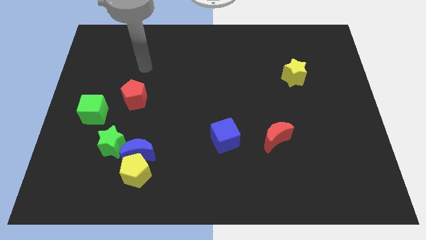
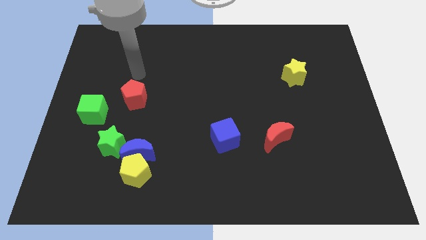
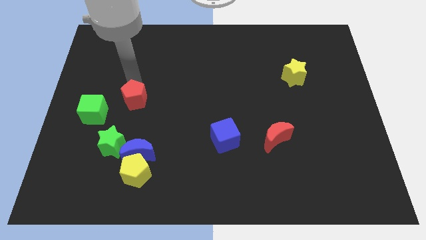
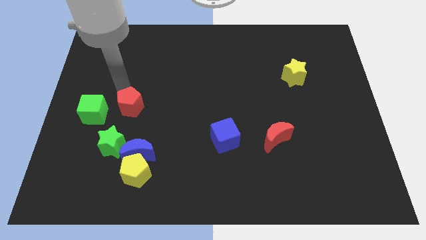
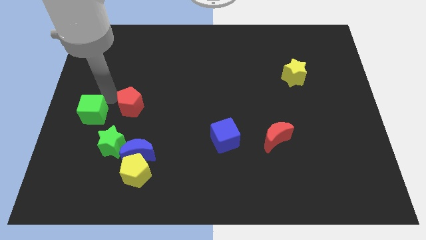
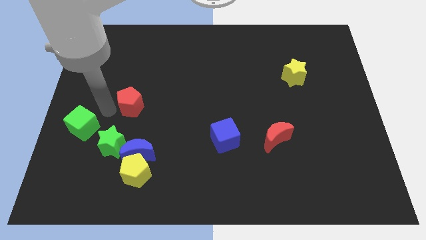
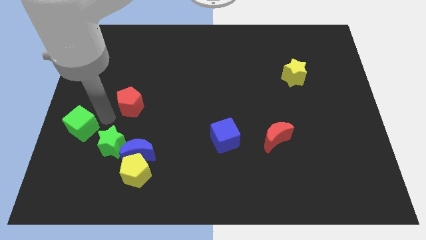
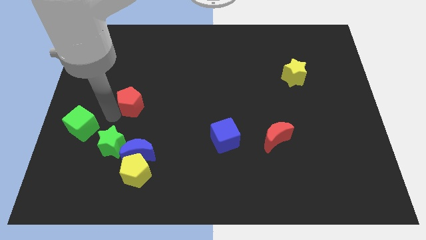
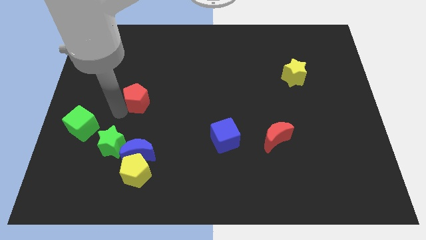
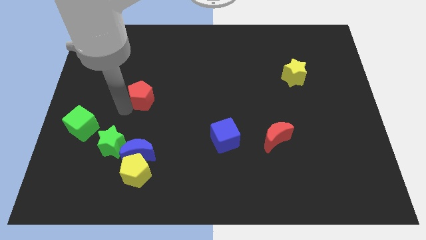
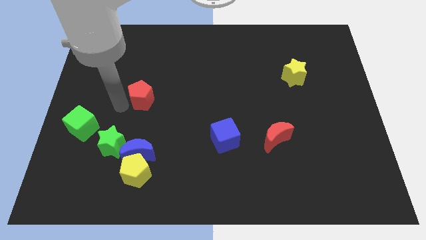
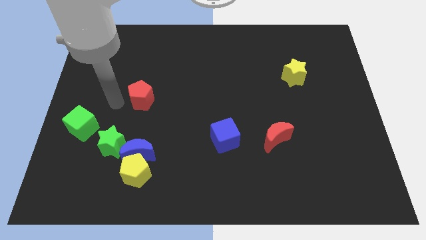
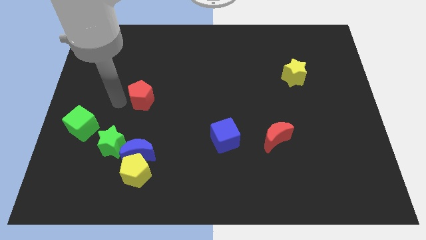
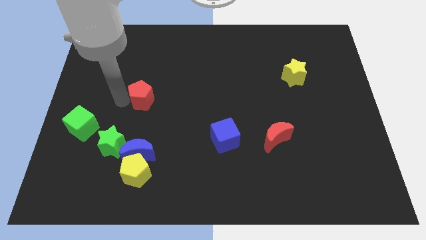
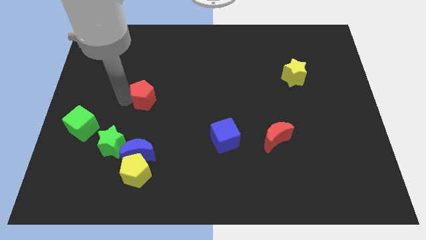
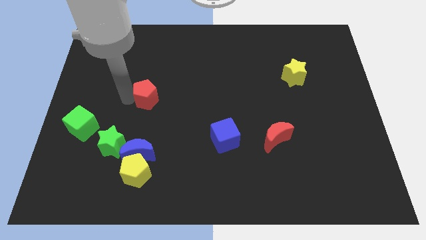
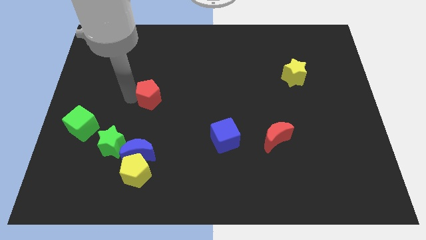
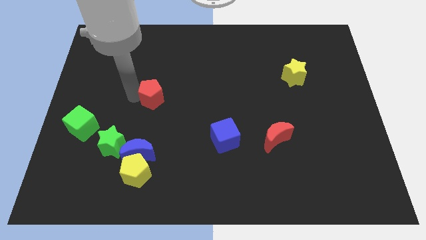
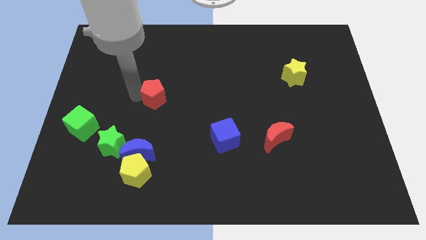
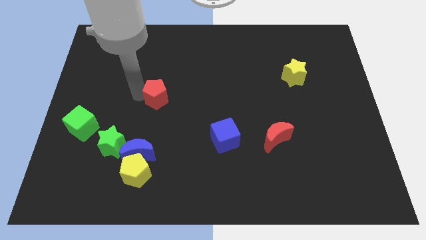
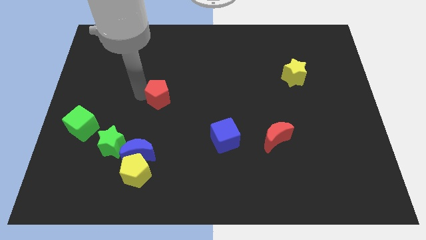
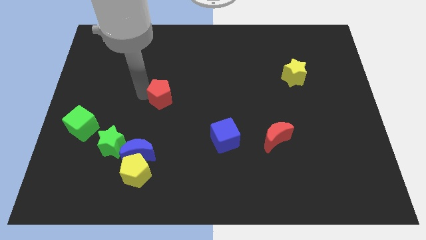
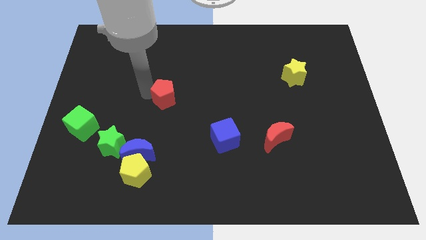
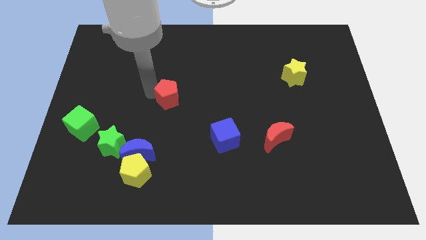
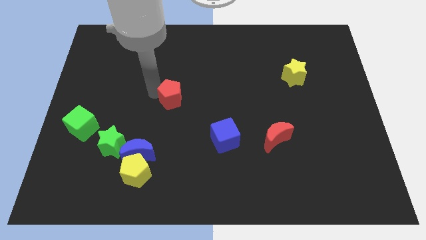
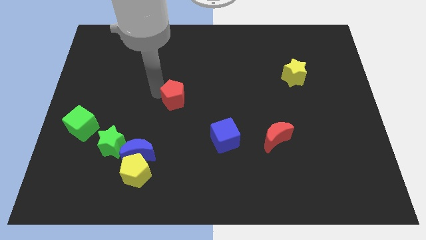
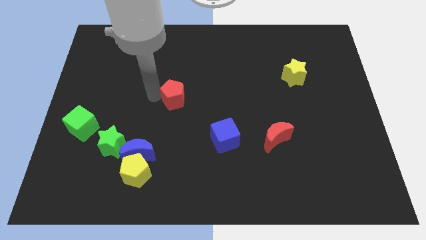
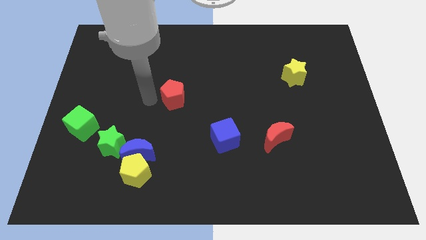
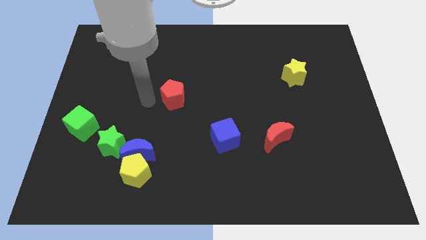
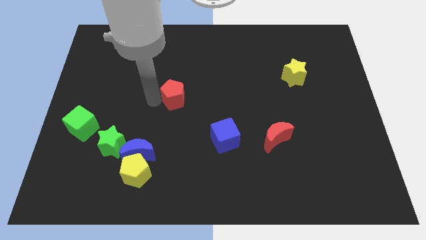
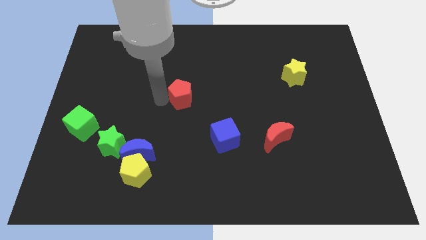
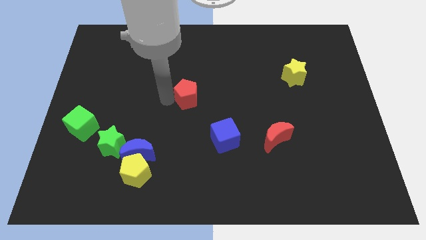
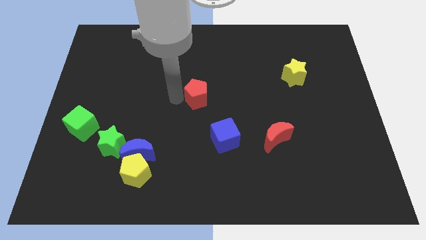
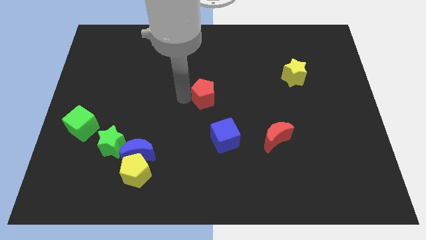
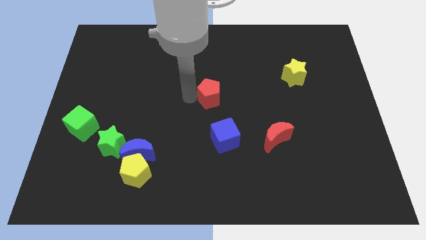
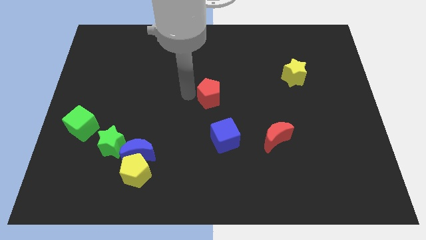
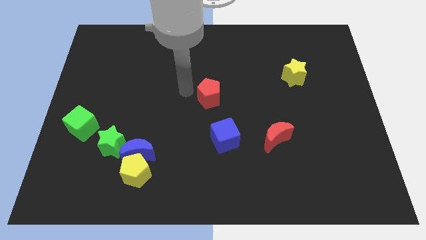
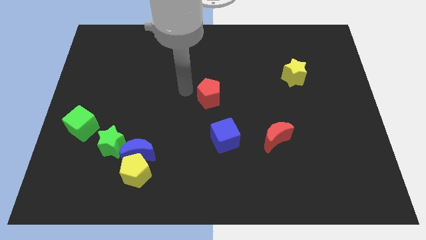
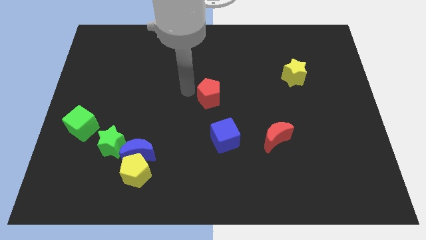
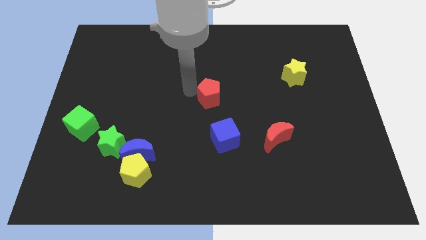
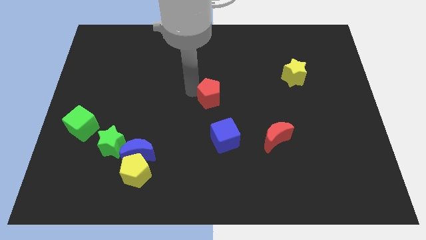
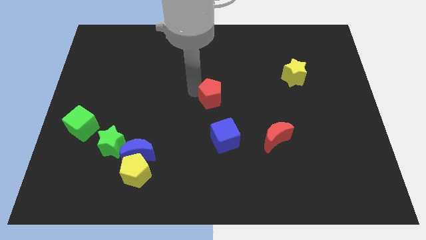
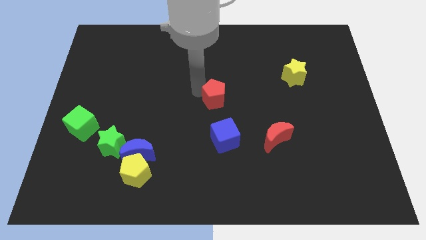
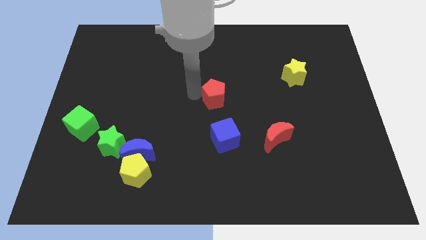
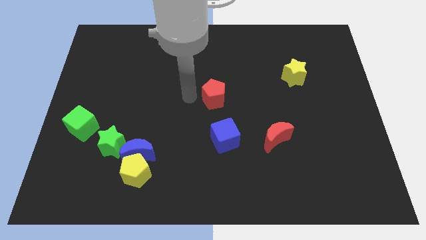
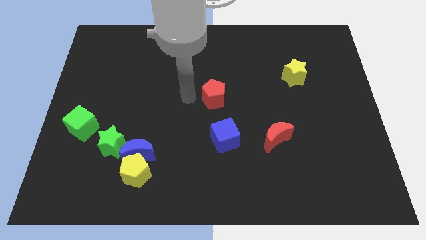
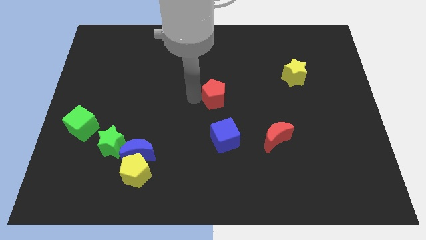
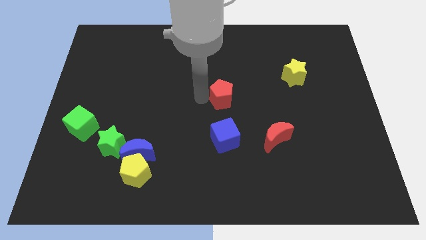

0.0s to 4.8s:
slide the red pentagon right

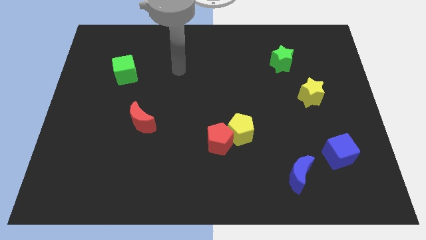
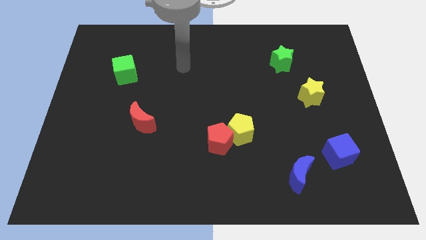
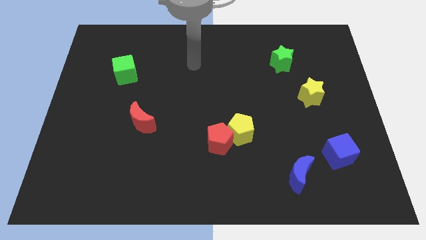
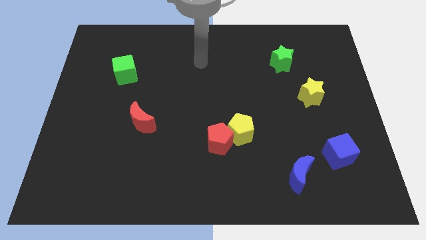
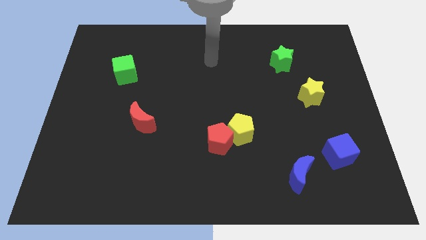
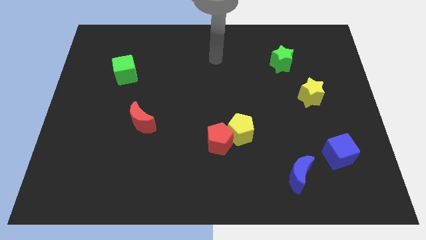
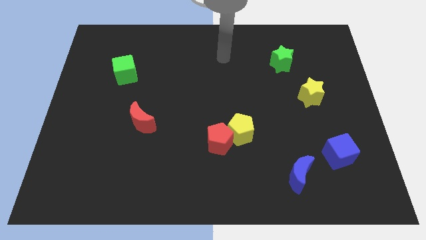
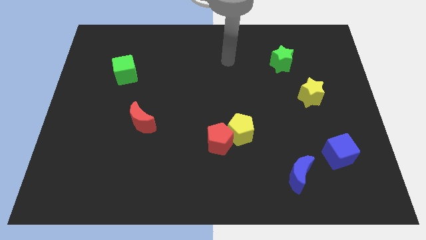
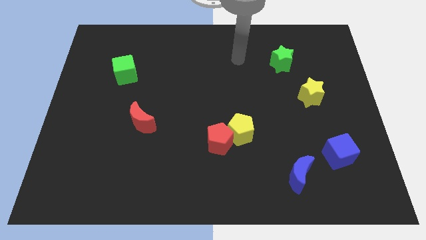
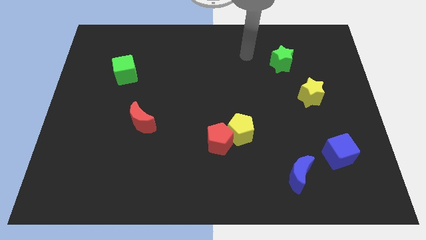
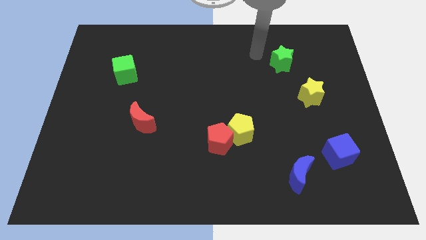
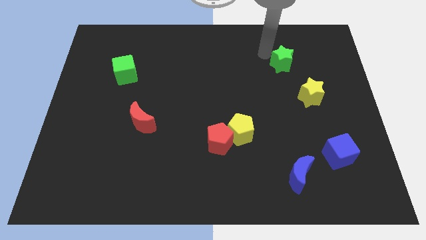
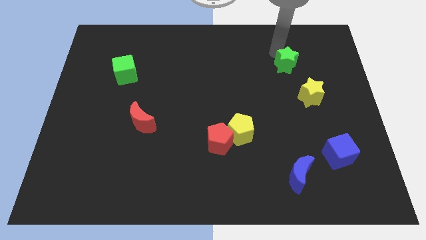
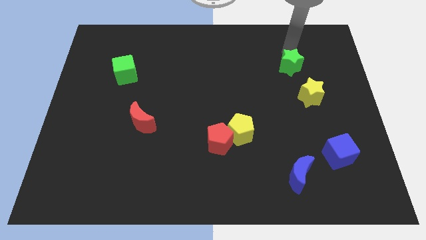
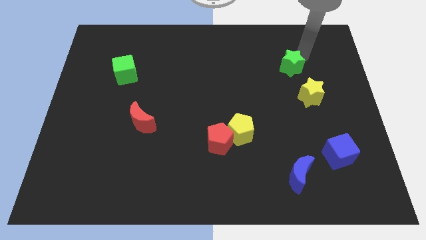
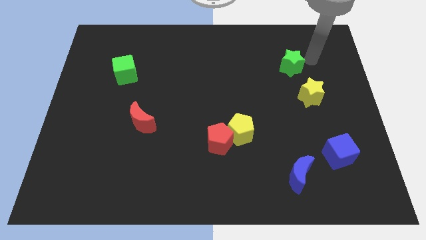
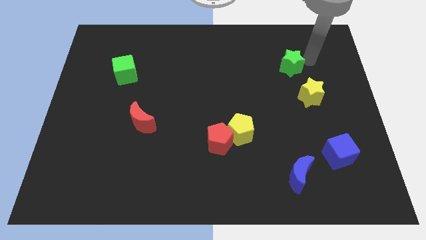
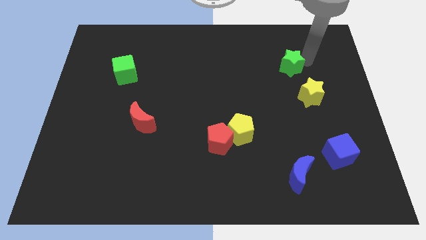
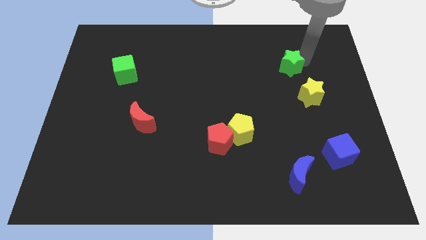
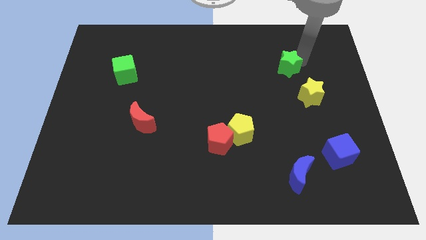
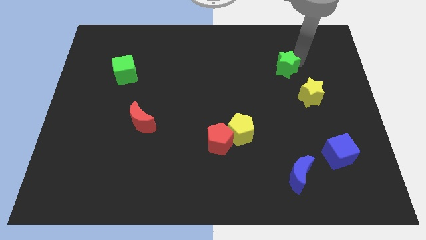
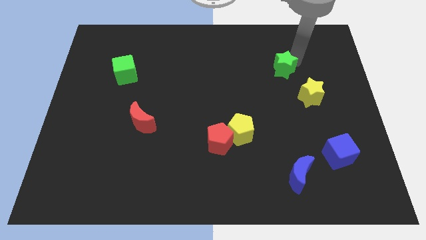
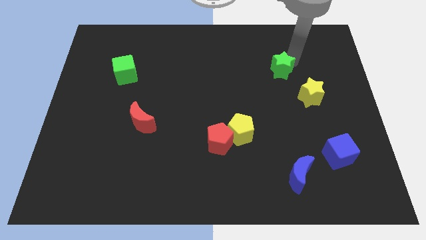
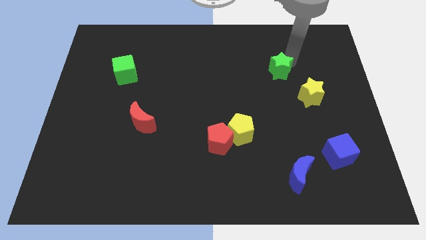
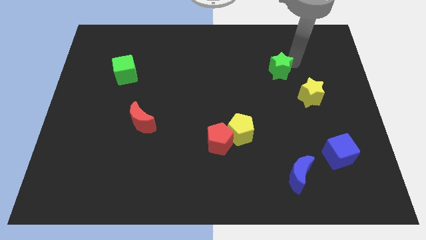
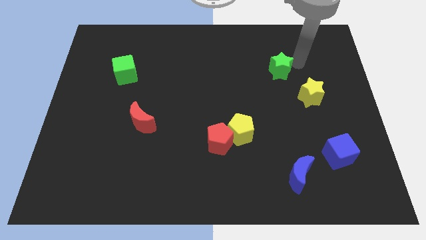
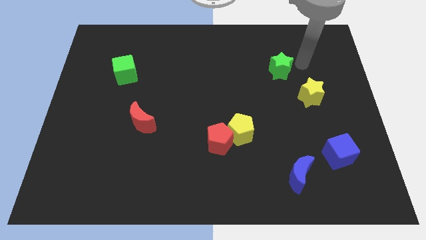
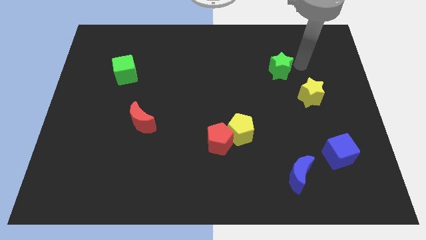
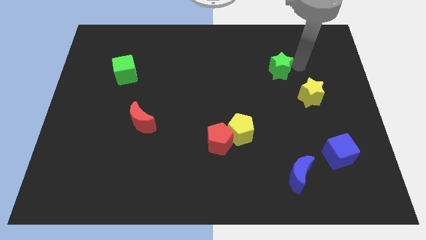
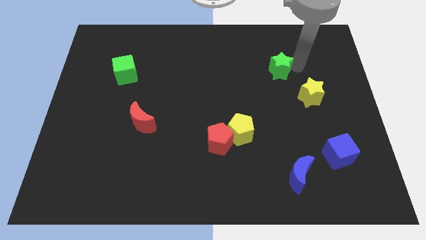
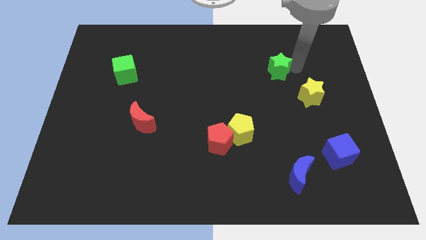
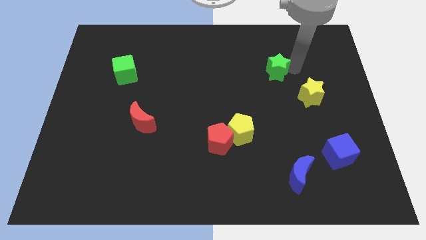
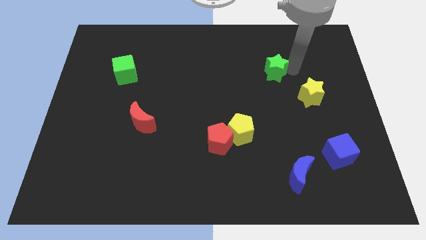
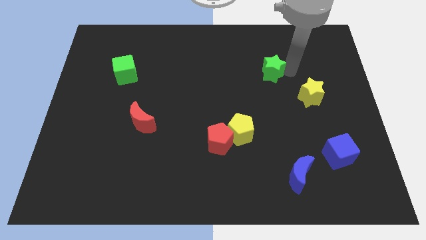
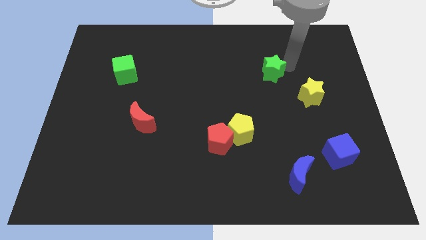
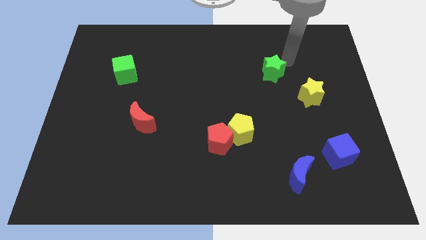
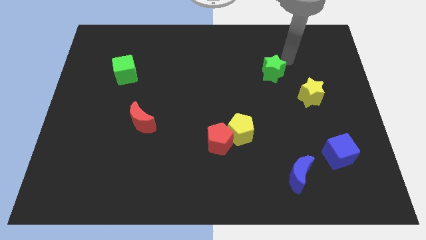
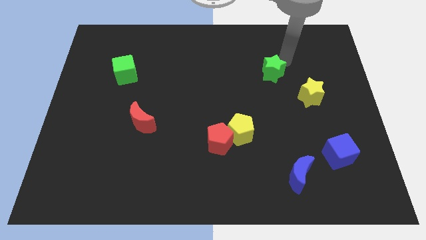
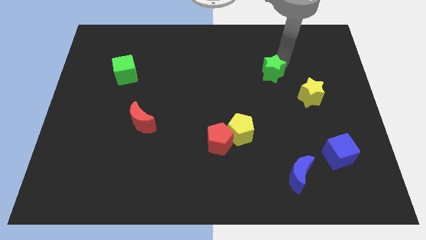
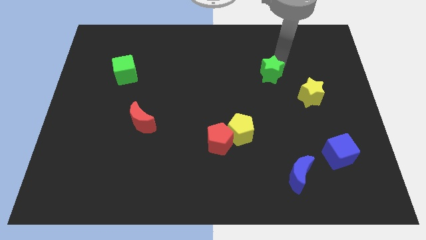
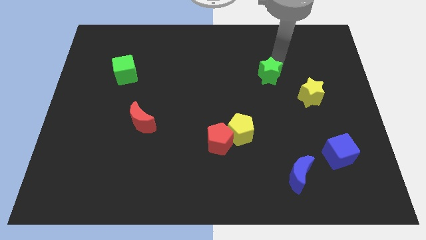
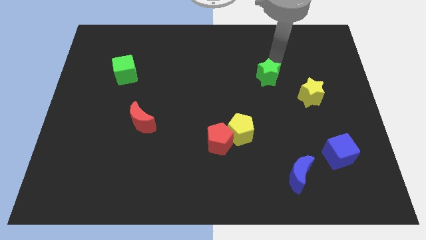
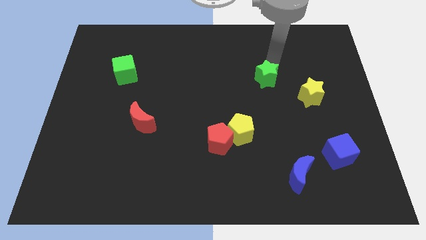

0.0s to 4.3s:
slightly move the green star downwards and then left
